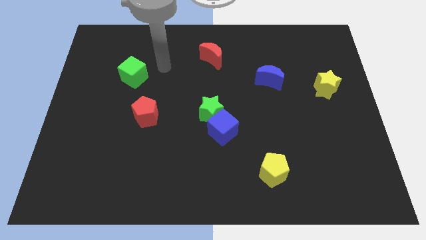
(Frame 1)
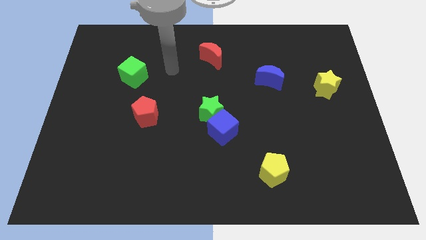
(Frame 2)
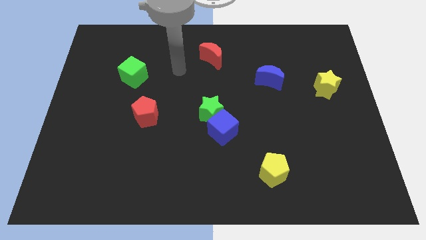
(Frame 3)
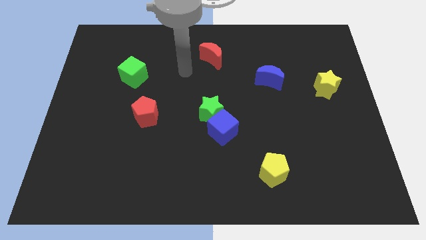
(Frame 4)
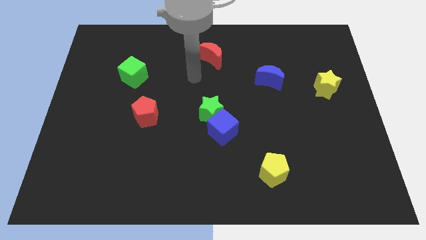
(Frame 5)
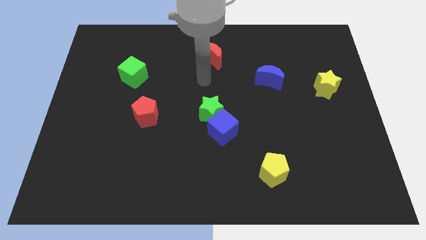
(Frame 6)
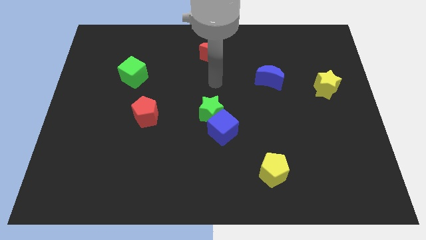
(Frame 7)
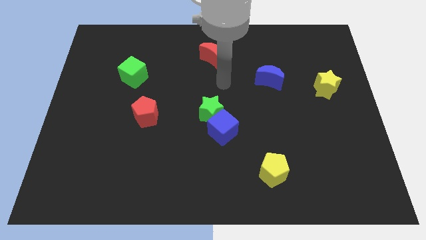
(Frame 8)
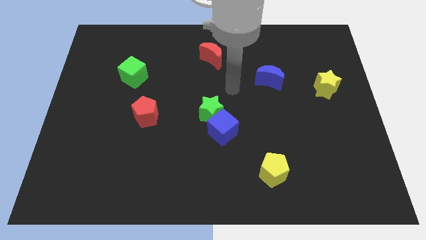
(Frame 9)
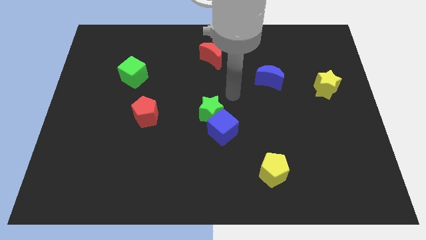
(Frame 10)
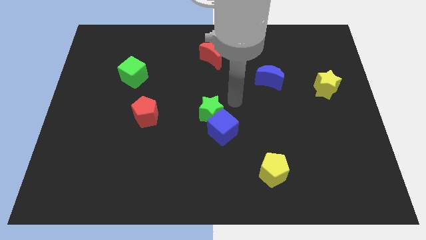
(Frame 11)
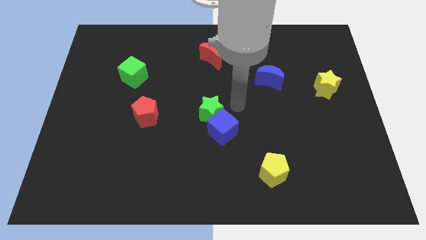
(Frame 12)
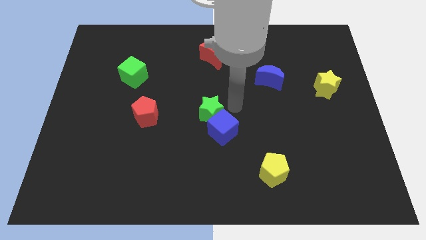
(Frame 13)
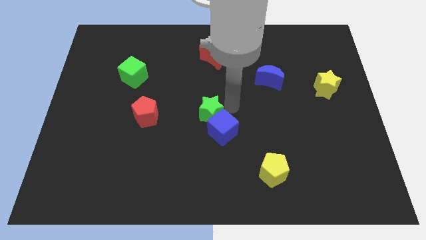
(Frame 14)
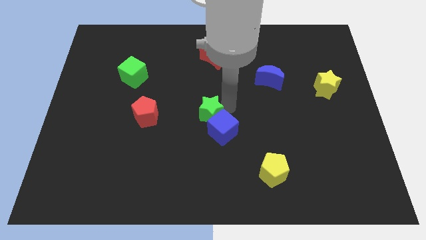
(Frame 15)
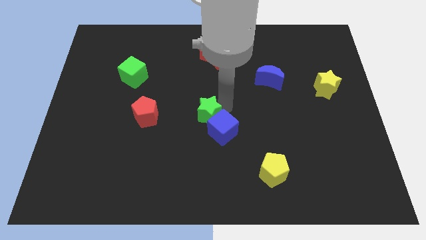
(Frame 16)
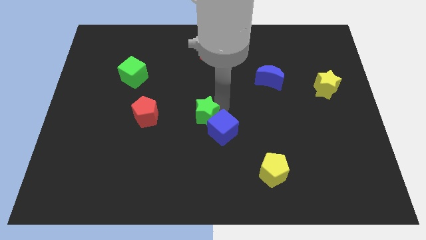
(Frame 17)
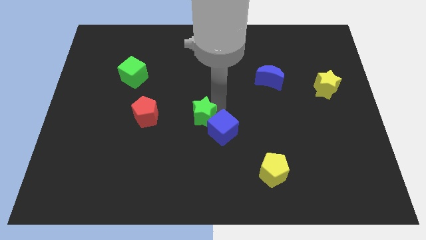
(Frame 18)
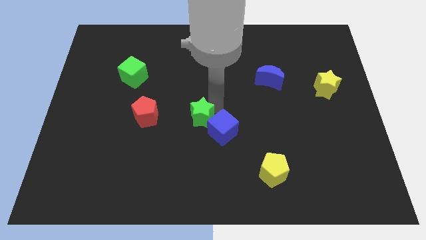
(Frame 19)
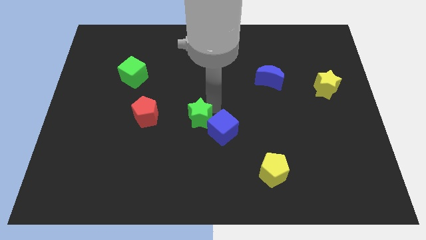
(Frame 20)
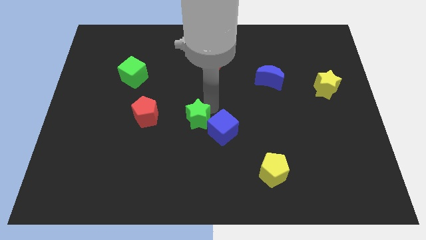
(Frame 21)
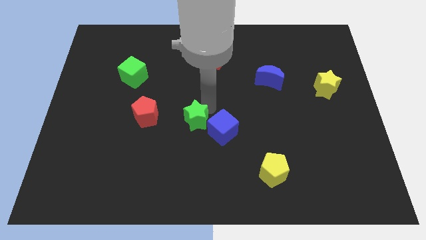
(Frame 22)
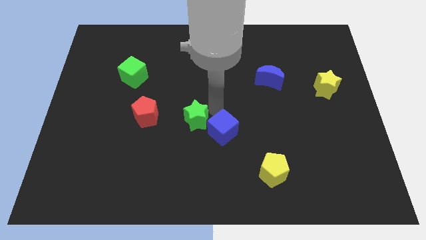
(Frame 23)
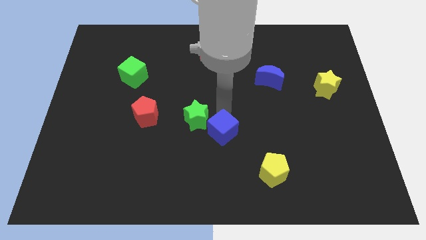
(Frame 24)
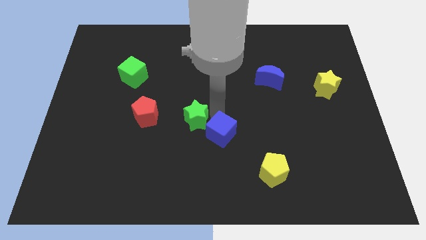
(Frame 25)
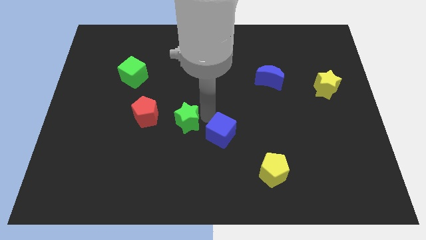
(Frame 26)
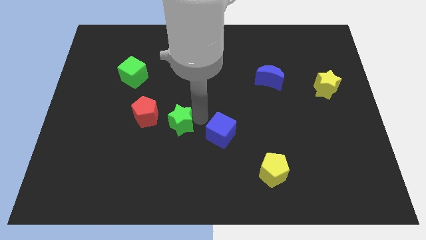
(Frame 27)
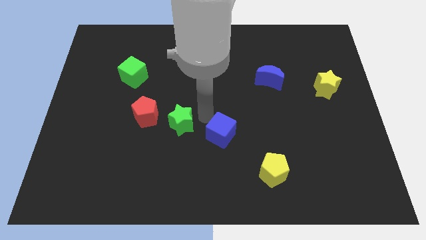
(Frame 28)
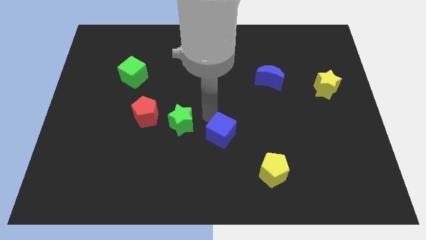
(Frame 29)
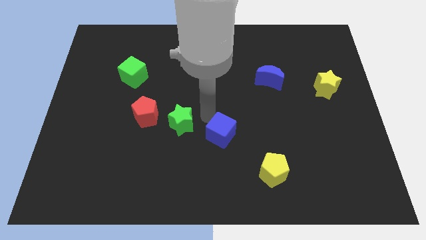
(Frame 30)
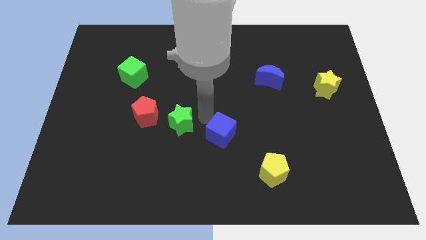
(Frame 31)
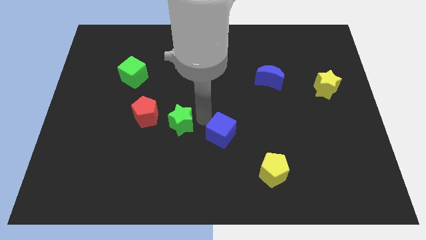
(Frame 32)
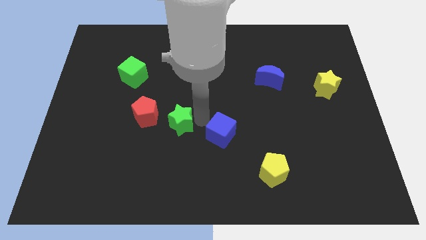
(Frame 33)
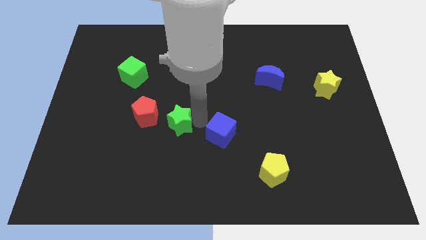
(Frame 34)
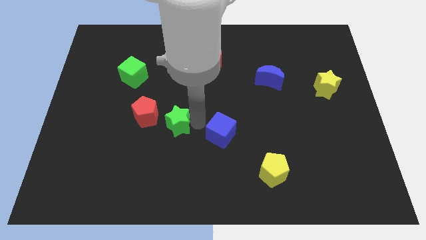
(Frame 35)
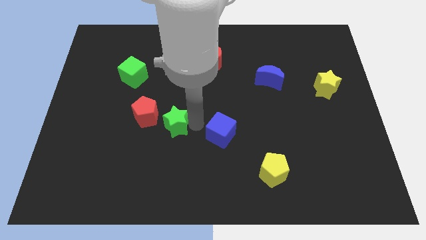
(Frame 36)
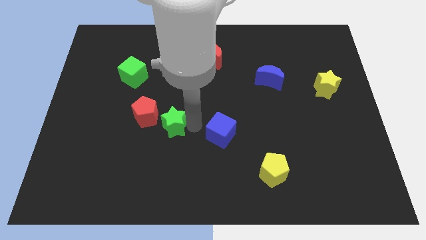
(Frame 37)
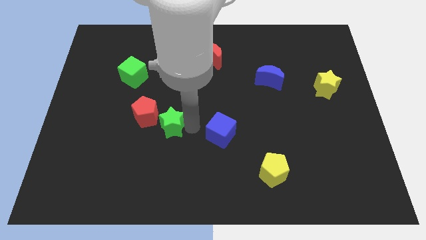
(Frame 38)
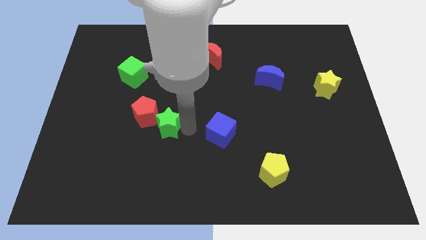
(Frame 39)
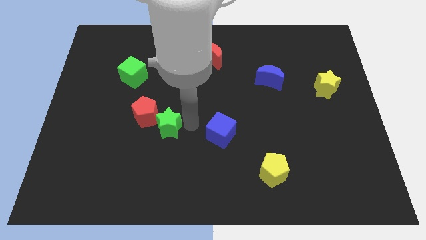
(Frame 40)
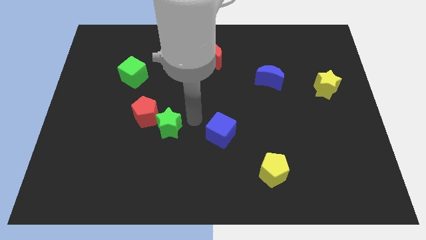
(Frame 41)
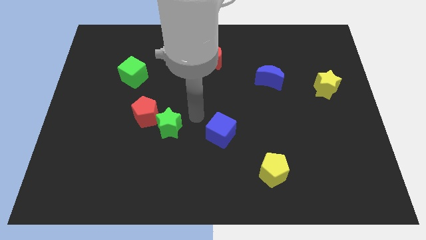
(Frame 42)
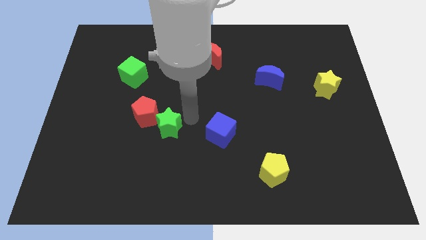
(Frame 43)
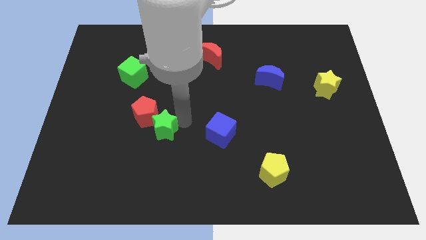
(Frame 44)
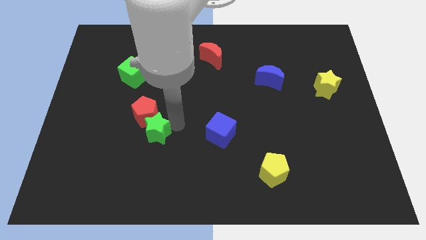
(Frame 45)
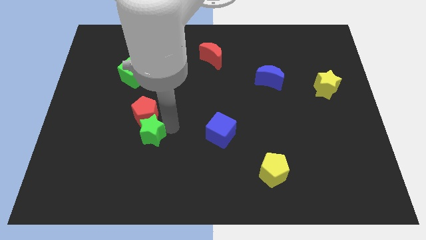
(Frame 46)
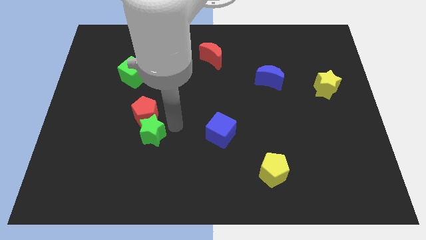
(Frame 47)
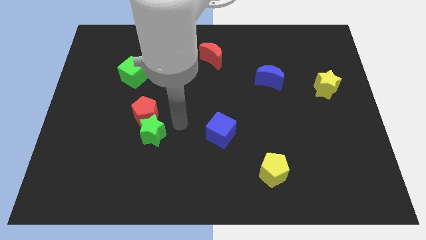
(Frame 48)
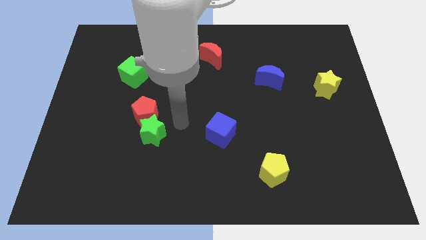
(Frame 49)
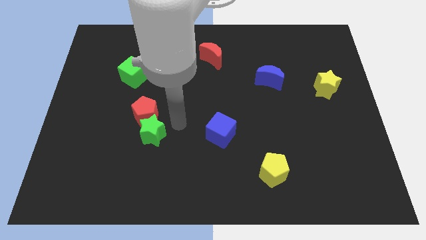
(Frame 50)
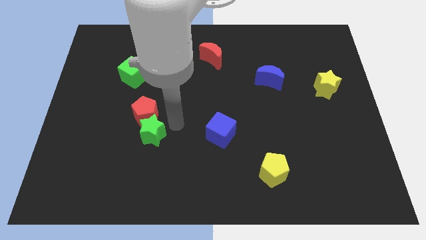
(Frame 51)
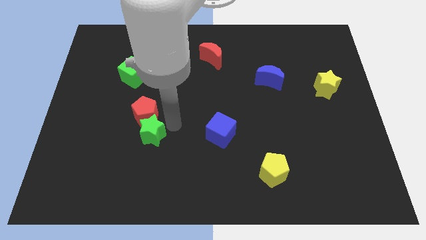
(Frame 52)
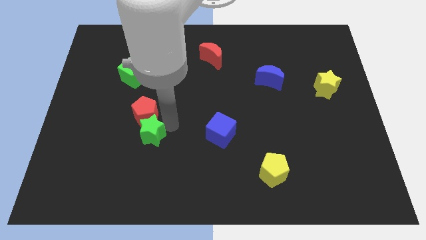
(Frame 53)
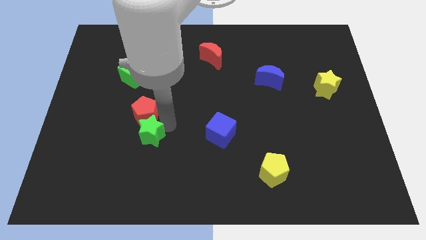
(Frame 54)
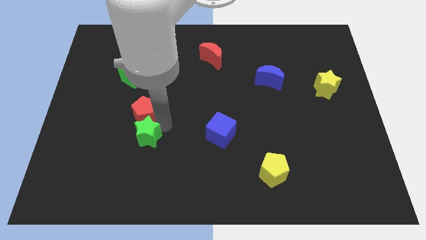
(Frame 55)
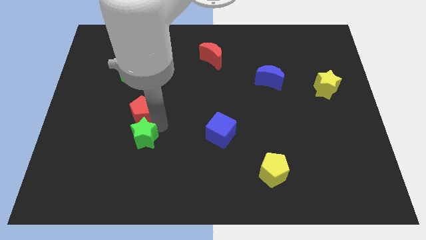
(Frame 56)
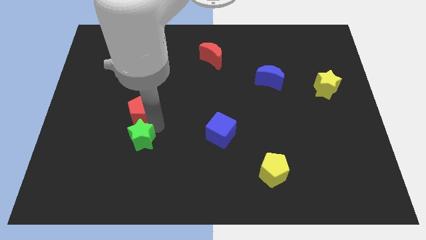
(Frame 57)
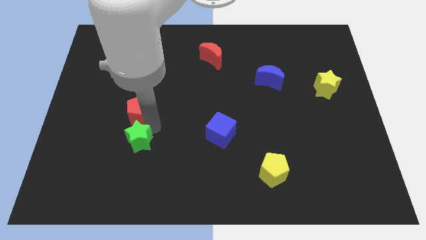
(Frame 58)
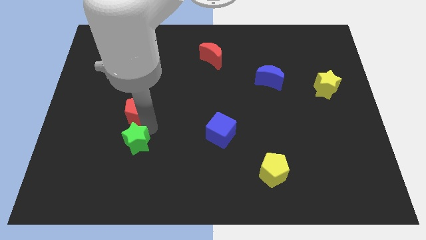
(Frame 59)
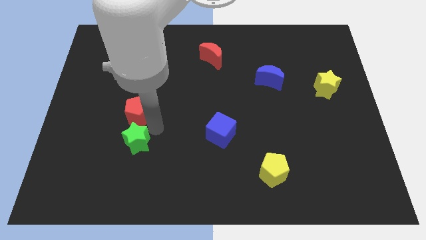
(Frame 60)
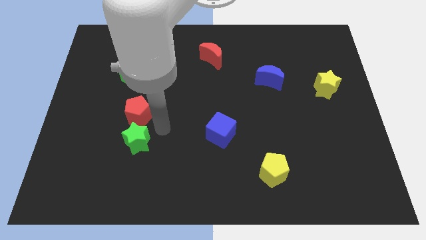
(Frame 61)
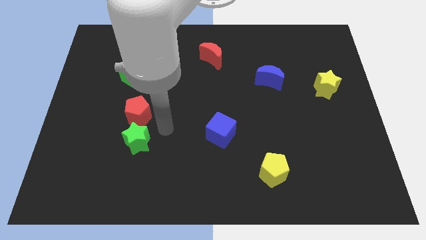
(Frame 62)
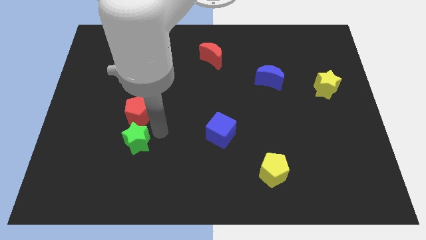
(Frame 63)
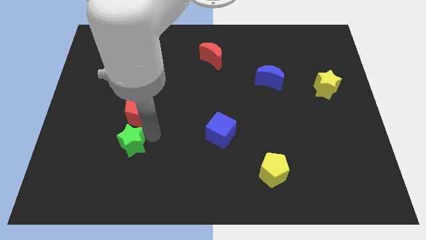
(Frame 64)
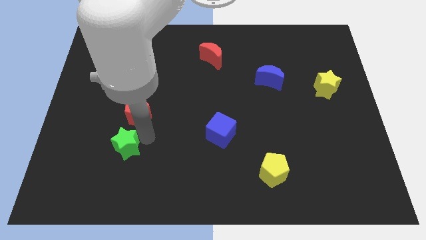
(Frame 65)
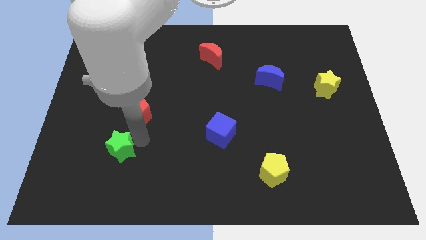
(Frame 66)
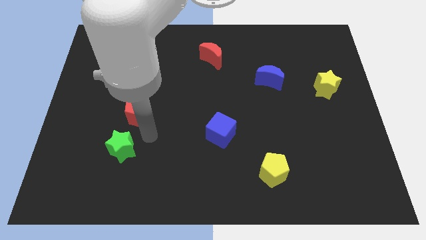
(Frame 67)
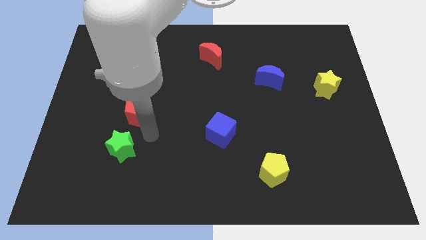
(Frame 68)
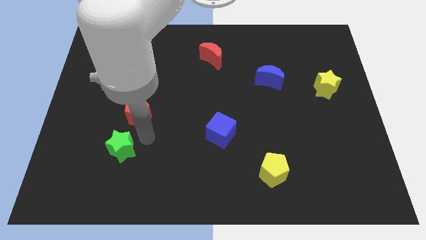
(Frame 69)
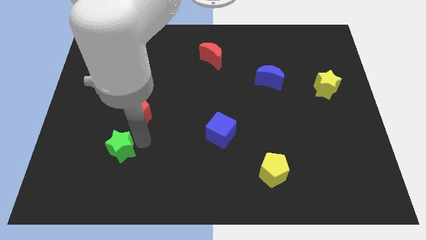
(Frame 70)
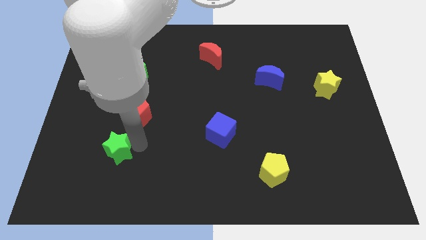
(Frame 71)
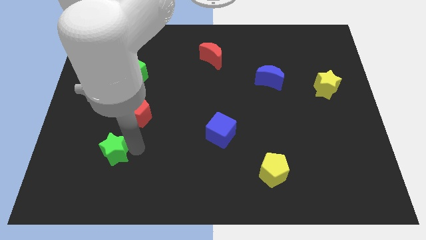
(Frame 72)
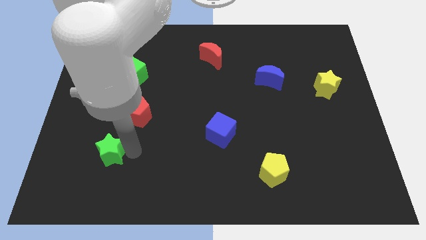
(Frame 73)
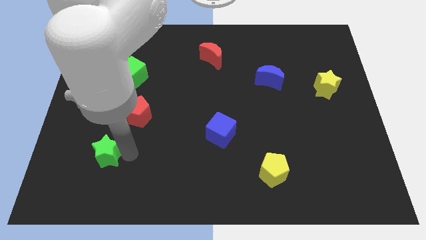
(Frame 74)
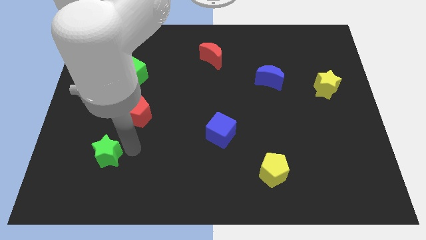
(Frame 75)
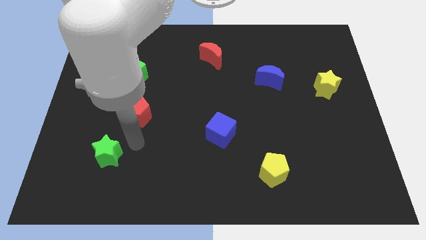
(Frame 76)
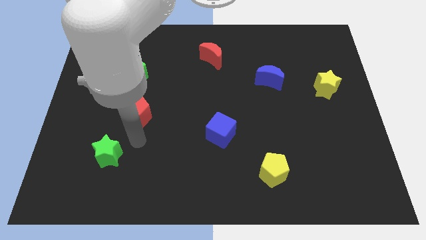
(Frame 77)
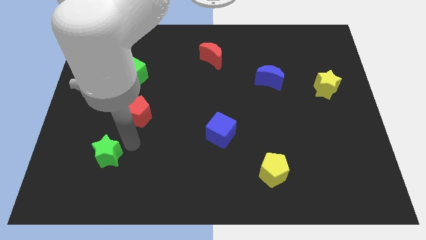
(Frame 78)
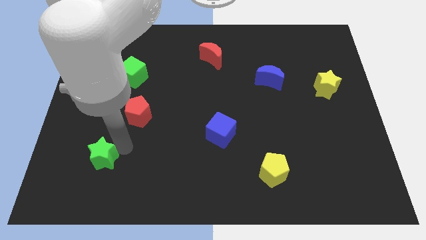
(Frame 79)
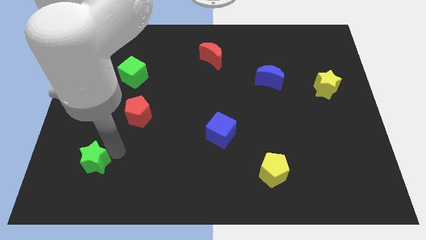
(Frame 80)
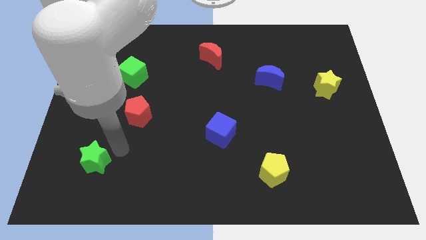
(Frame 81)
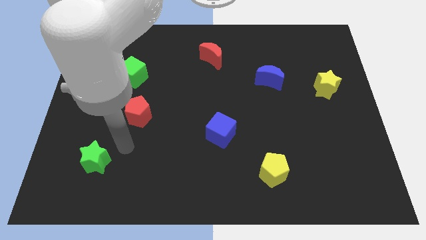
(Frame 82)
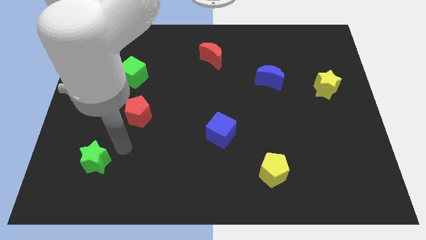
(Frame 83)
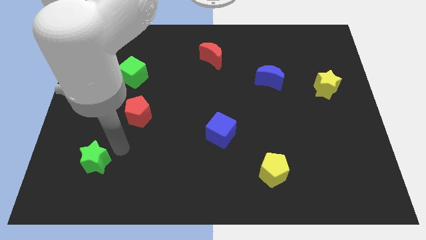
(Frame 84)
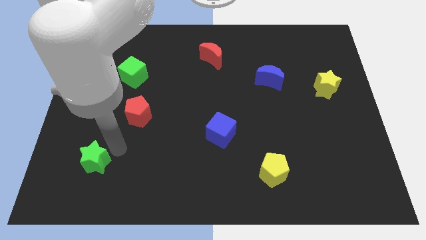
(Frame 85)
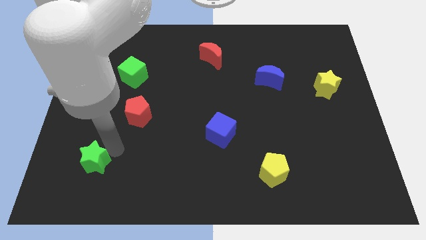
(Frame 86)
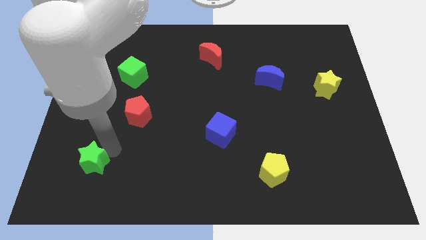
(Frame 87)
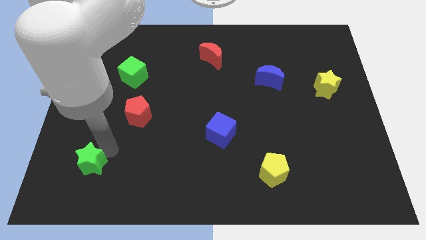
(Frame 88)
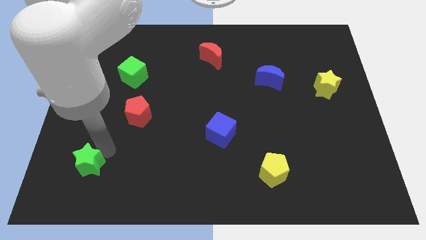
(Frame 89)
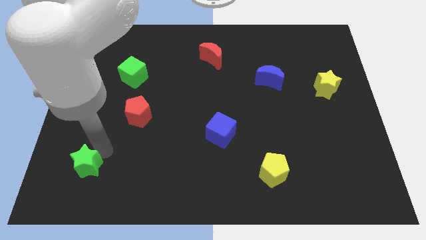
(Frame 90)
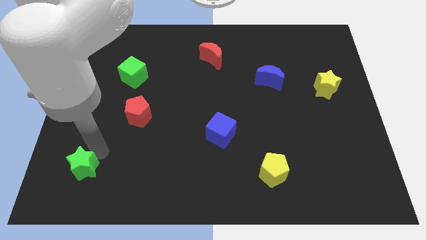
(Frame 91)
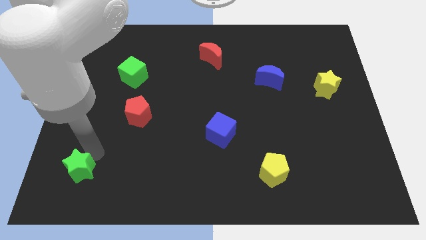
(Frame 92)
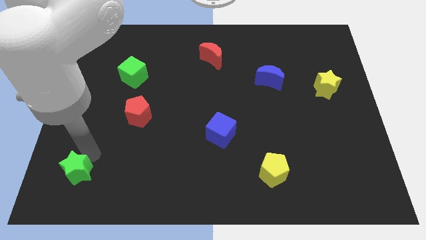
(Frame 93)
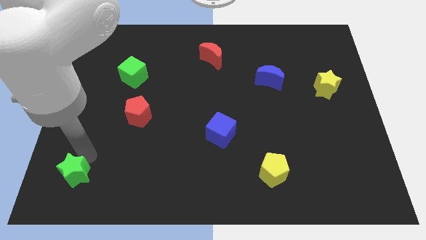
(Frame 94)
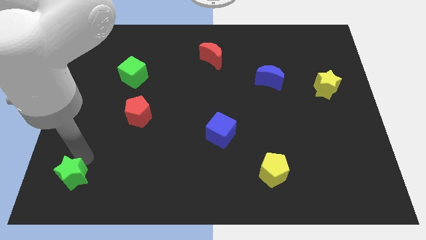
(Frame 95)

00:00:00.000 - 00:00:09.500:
move the green star to the bottom left corner
